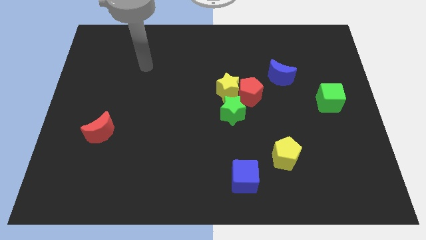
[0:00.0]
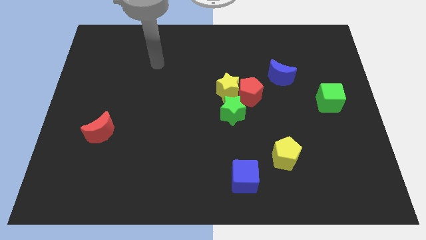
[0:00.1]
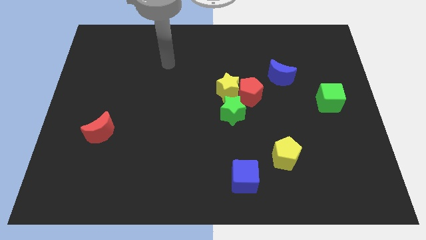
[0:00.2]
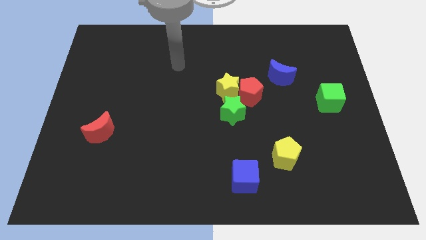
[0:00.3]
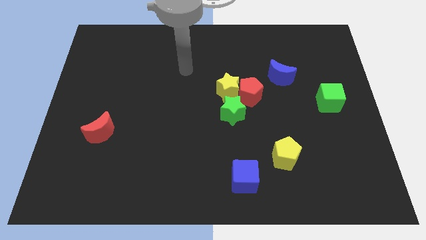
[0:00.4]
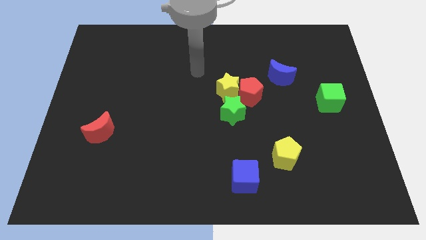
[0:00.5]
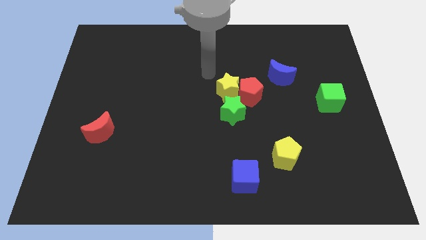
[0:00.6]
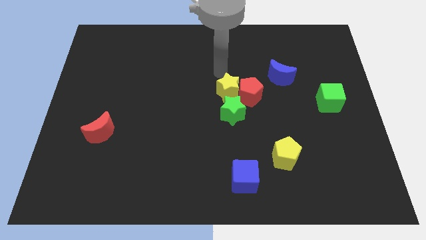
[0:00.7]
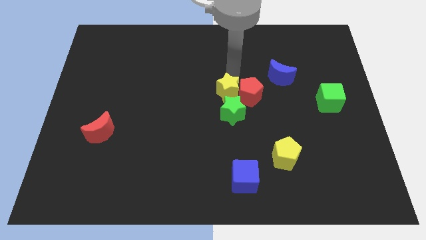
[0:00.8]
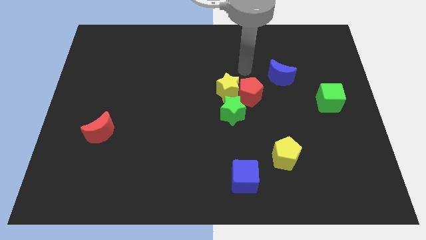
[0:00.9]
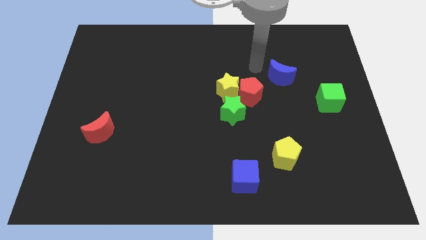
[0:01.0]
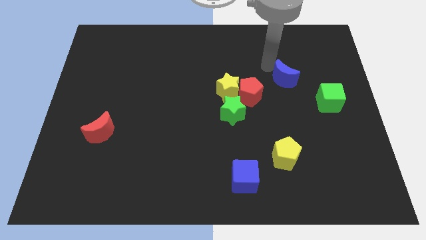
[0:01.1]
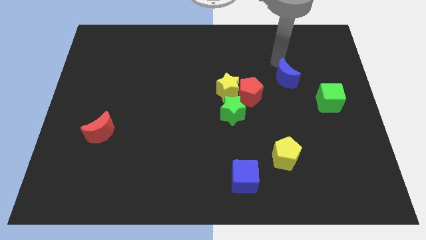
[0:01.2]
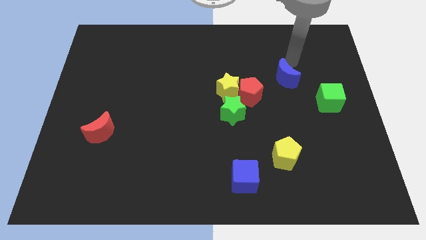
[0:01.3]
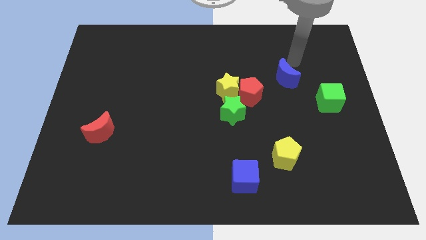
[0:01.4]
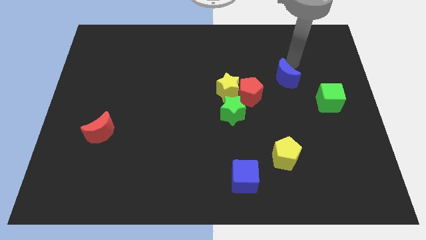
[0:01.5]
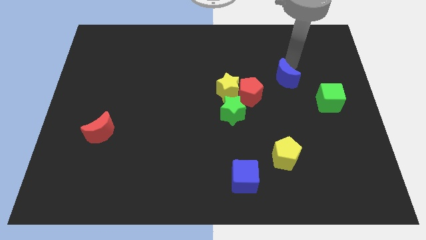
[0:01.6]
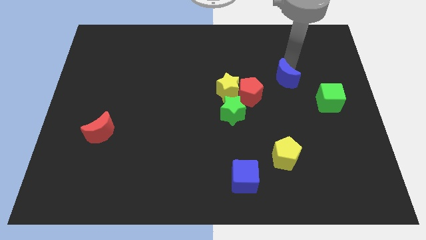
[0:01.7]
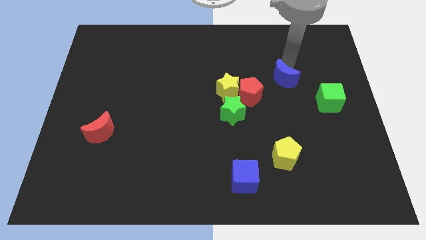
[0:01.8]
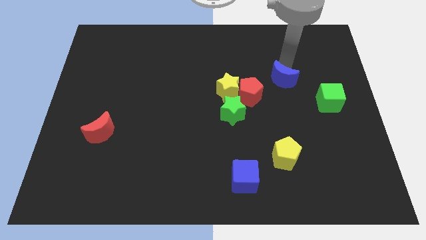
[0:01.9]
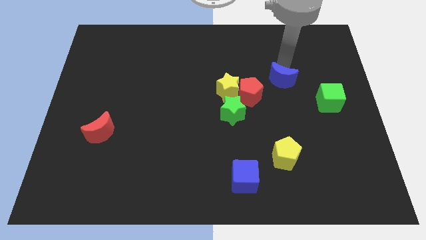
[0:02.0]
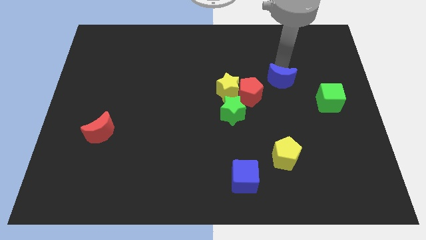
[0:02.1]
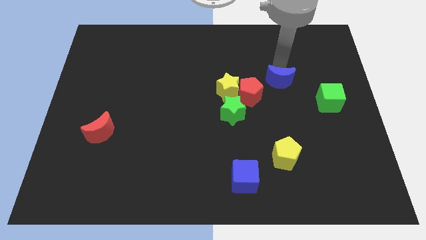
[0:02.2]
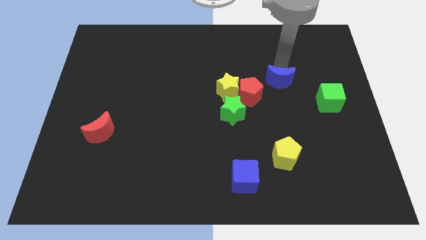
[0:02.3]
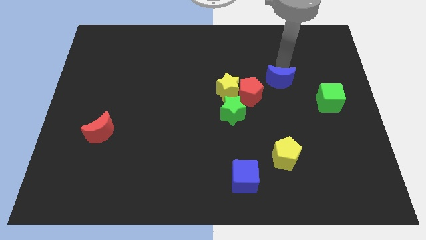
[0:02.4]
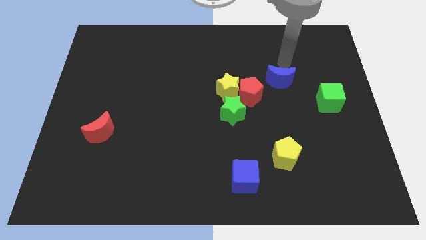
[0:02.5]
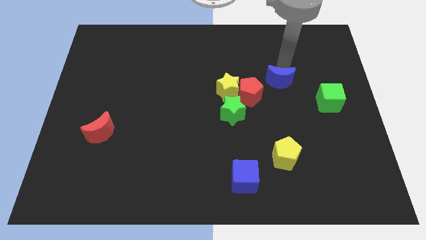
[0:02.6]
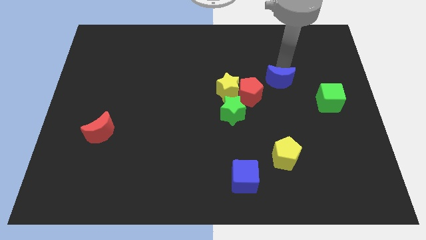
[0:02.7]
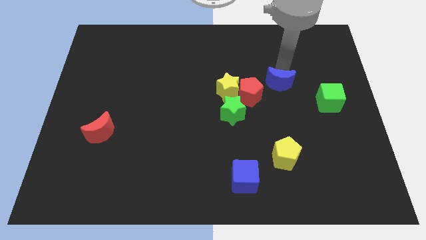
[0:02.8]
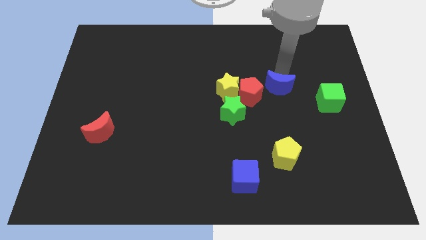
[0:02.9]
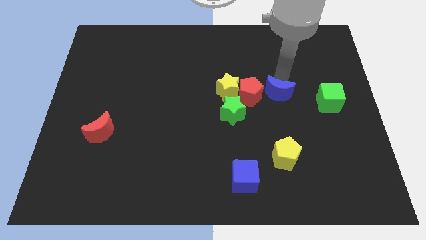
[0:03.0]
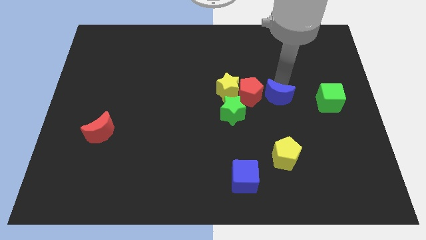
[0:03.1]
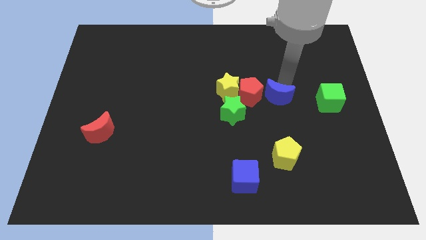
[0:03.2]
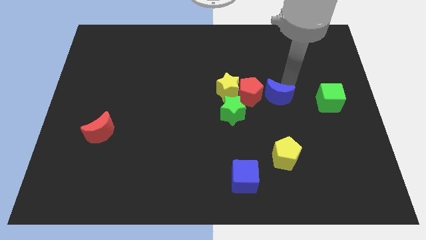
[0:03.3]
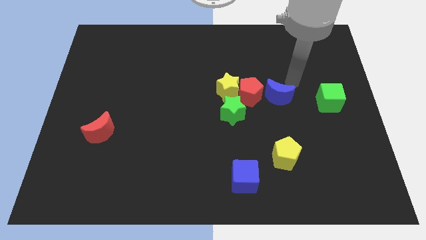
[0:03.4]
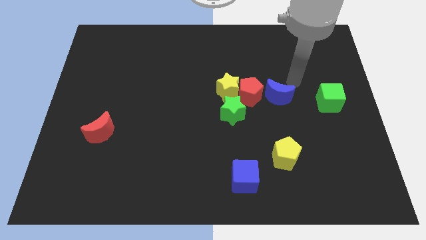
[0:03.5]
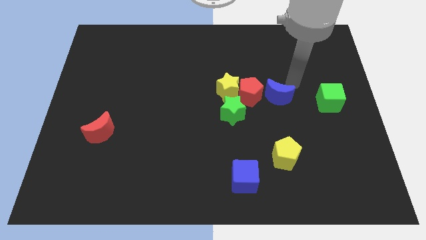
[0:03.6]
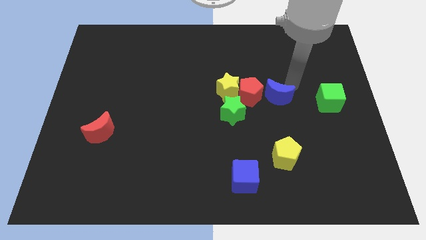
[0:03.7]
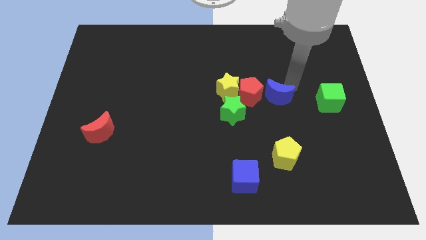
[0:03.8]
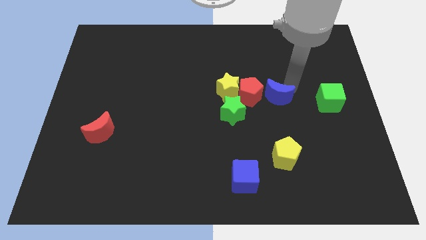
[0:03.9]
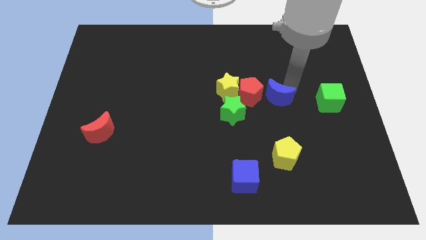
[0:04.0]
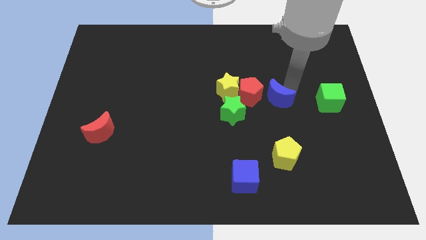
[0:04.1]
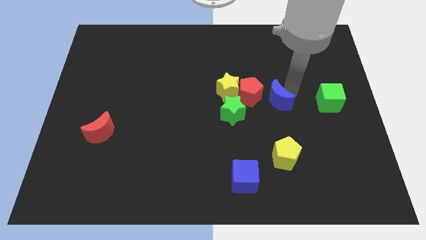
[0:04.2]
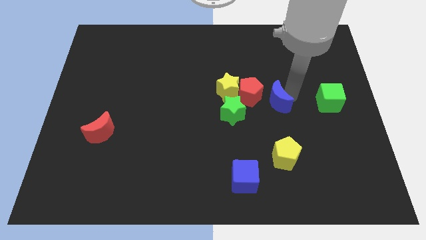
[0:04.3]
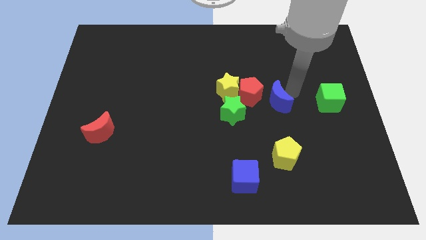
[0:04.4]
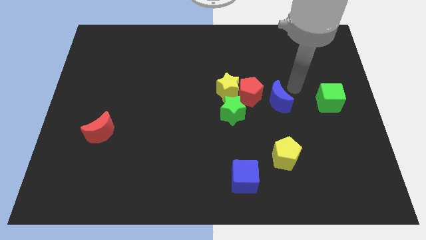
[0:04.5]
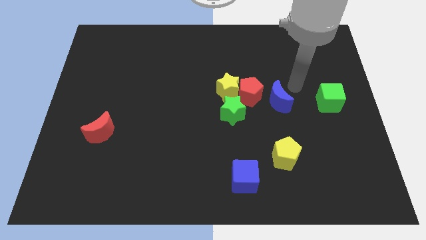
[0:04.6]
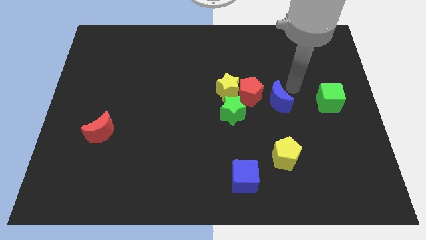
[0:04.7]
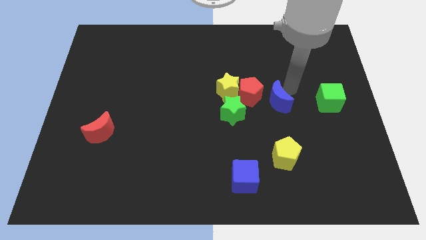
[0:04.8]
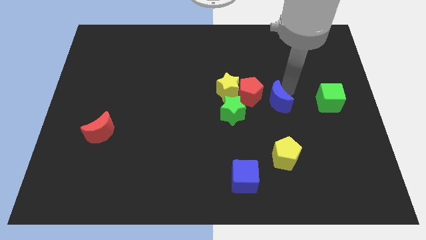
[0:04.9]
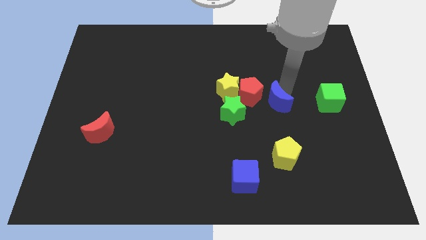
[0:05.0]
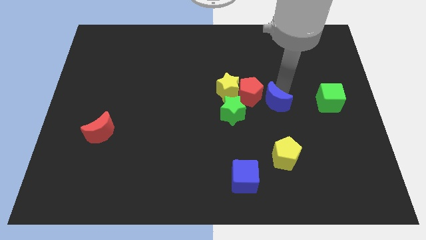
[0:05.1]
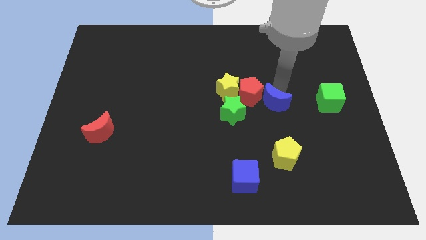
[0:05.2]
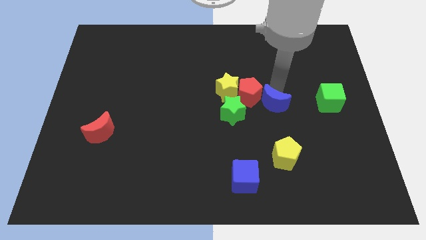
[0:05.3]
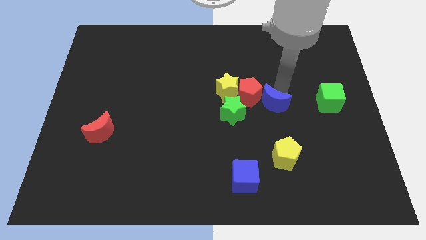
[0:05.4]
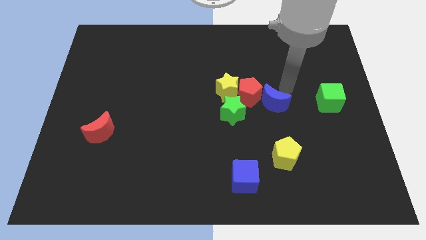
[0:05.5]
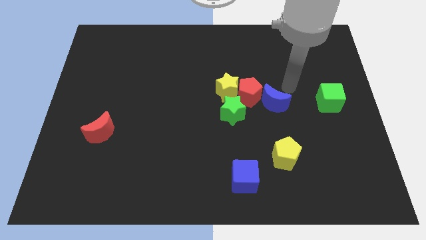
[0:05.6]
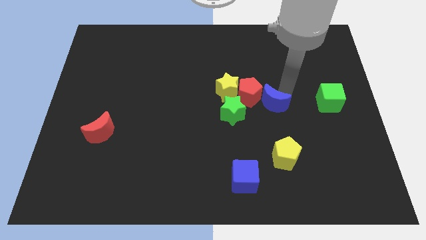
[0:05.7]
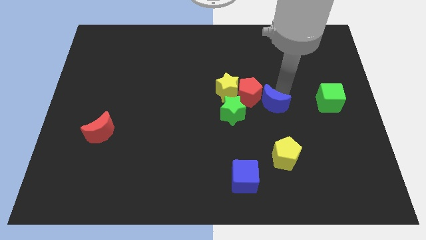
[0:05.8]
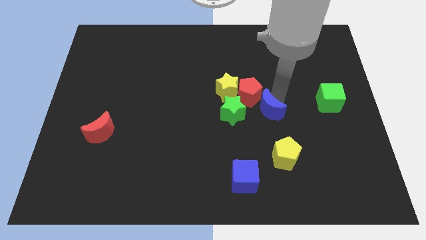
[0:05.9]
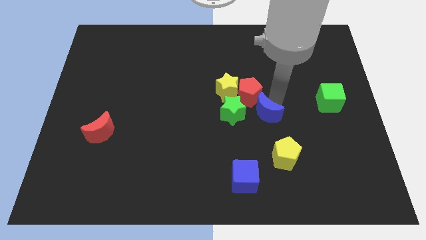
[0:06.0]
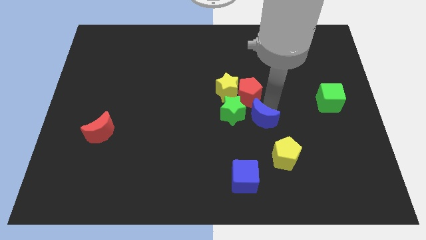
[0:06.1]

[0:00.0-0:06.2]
push the blue moon to the bottom right of the green star

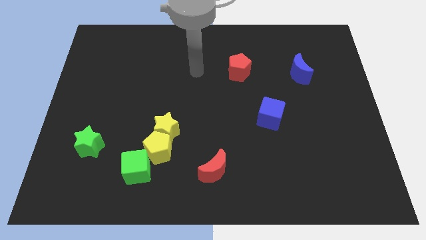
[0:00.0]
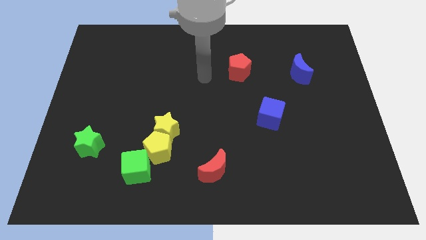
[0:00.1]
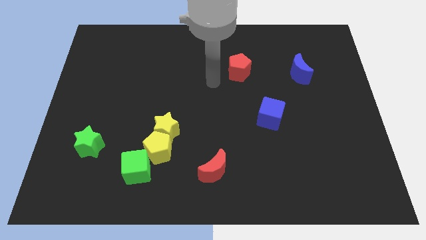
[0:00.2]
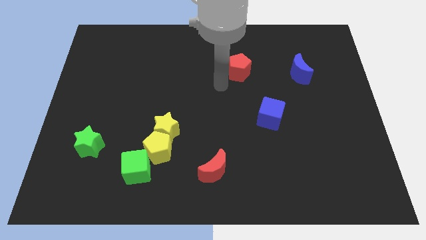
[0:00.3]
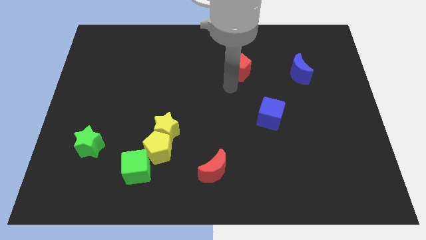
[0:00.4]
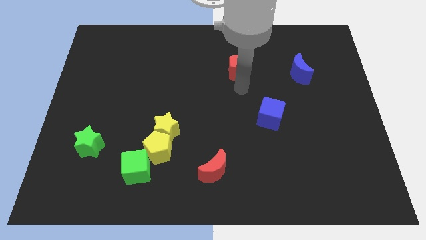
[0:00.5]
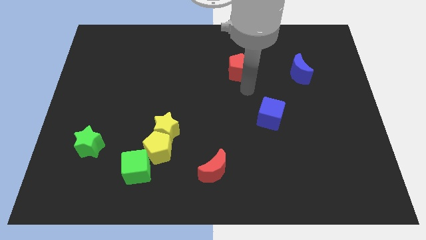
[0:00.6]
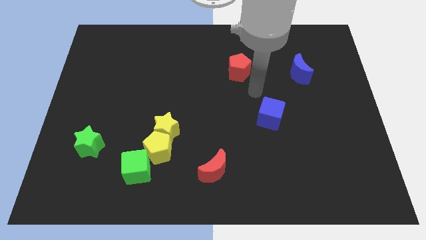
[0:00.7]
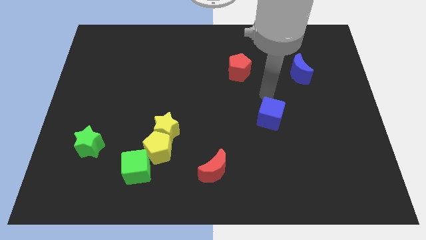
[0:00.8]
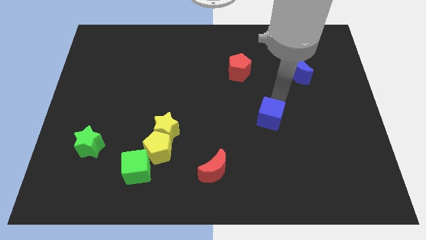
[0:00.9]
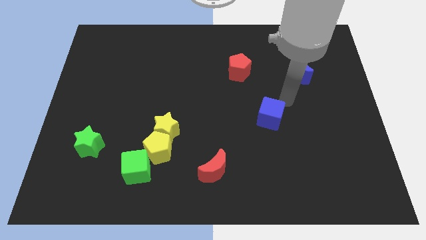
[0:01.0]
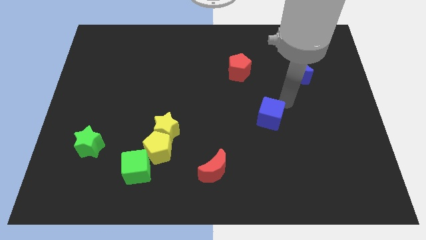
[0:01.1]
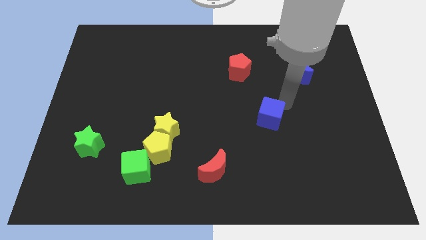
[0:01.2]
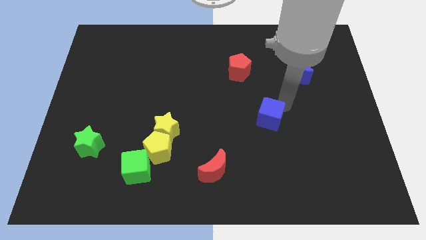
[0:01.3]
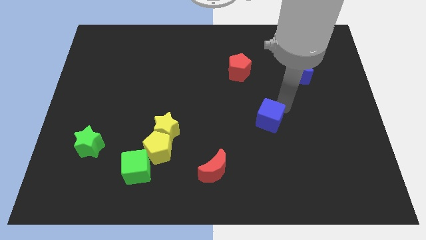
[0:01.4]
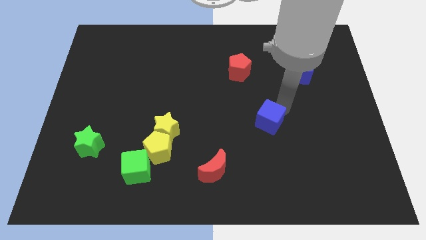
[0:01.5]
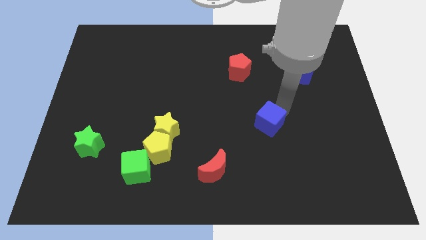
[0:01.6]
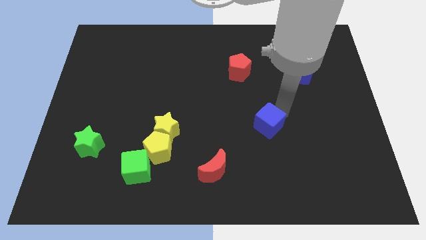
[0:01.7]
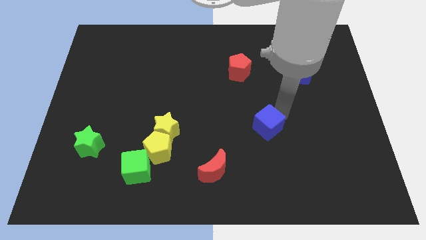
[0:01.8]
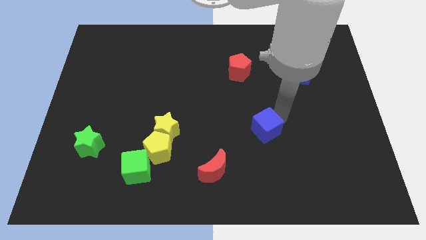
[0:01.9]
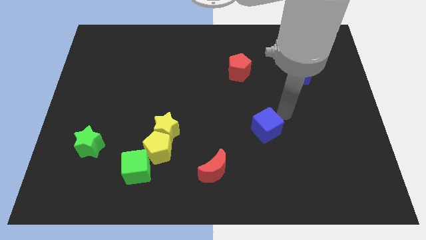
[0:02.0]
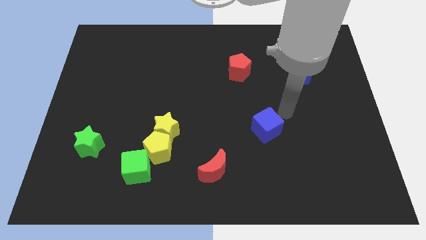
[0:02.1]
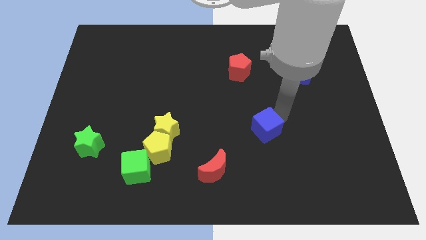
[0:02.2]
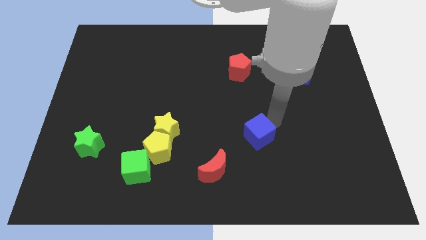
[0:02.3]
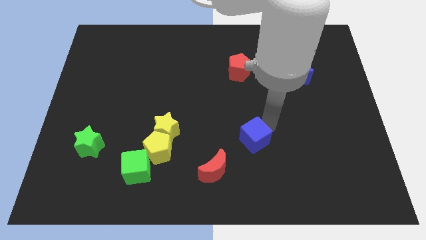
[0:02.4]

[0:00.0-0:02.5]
put the blue cube diagonally up and to the right of the red moon
